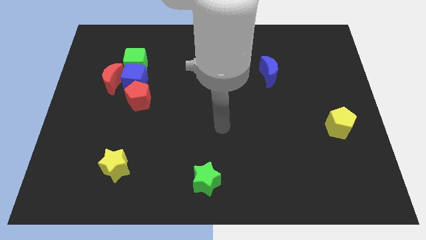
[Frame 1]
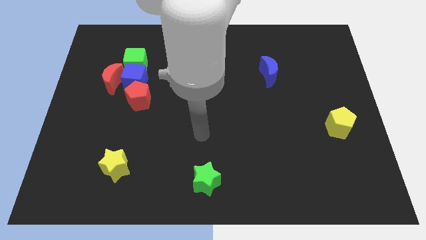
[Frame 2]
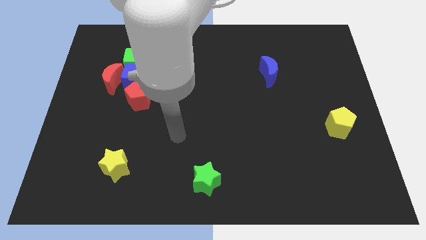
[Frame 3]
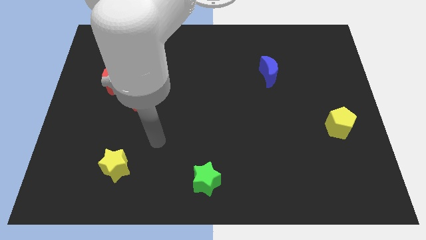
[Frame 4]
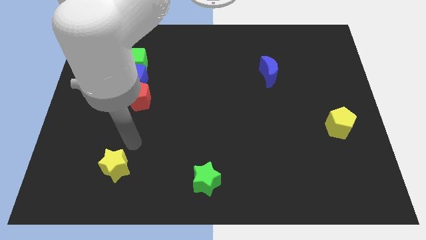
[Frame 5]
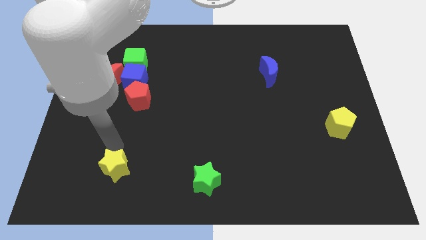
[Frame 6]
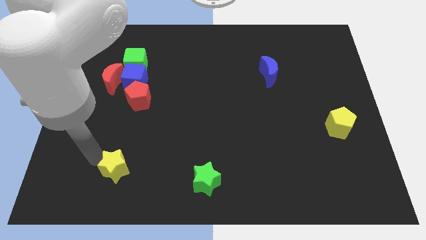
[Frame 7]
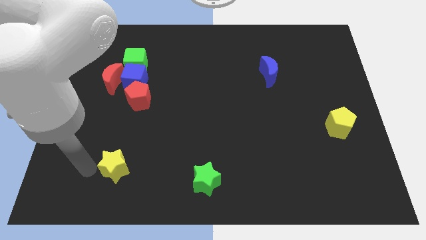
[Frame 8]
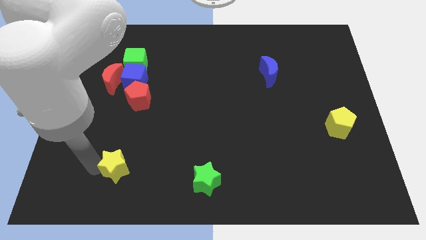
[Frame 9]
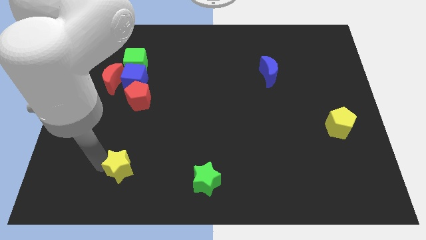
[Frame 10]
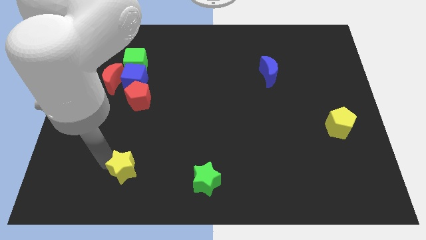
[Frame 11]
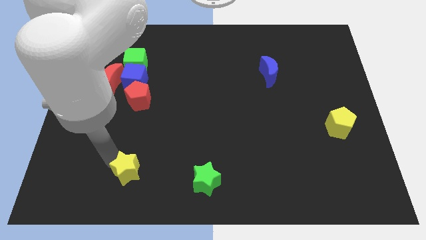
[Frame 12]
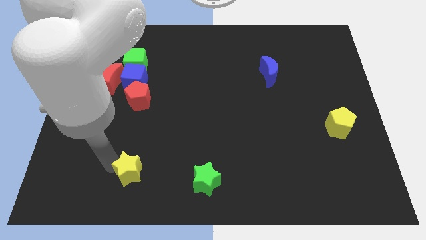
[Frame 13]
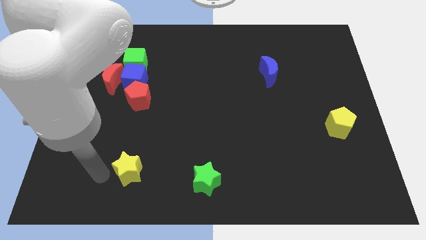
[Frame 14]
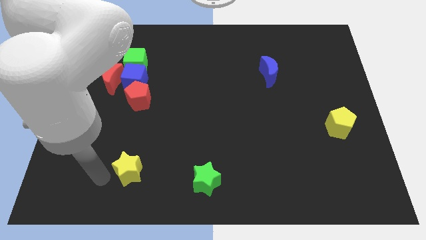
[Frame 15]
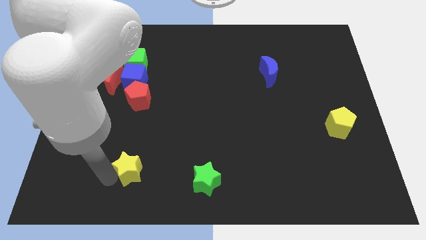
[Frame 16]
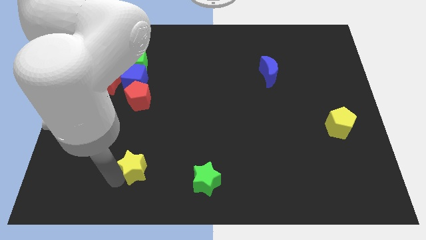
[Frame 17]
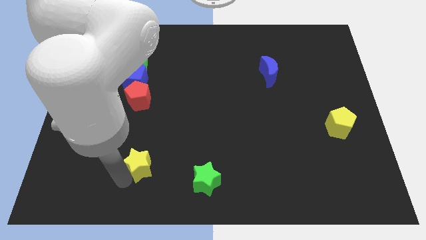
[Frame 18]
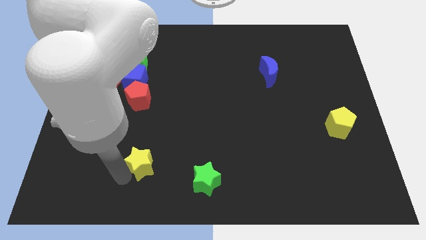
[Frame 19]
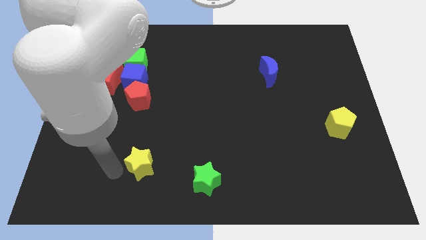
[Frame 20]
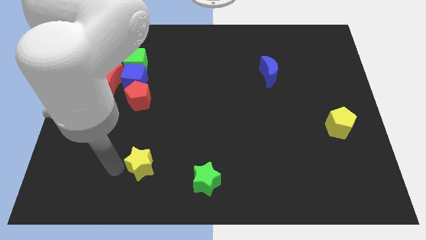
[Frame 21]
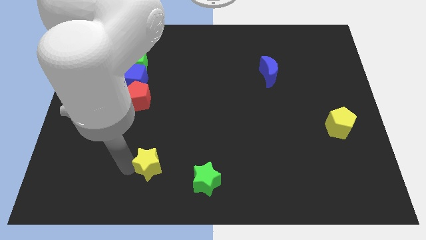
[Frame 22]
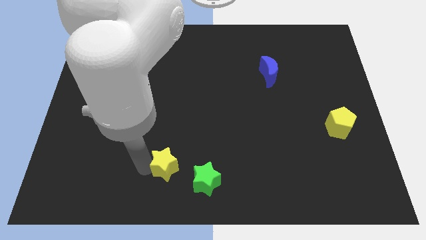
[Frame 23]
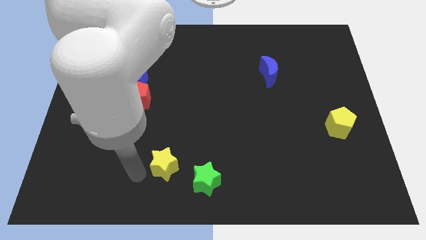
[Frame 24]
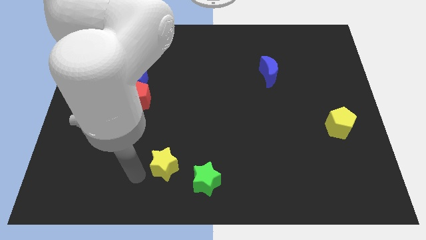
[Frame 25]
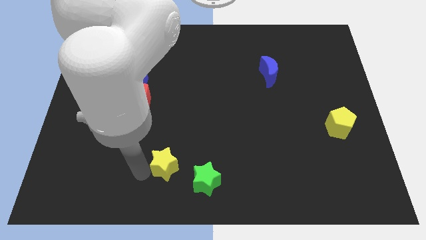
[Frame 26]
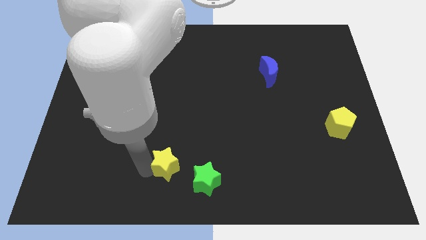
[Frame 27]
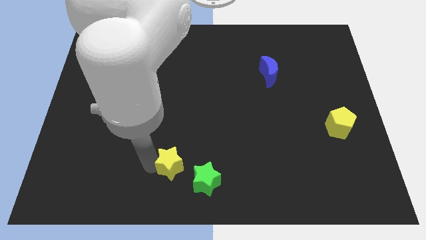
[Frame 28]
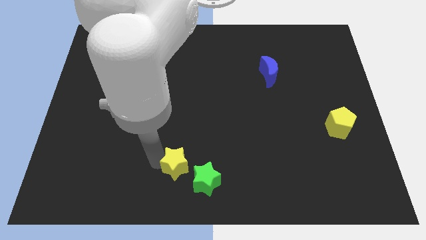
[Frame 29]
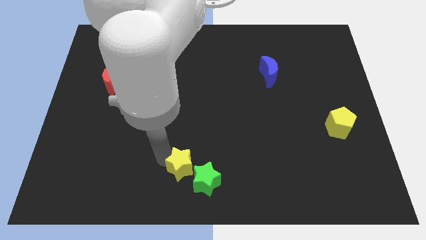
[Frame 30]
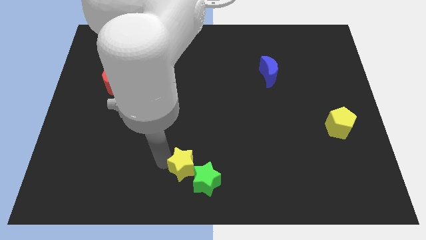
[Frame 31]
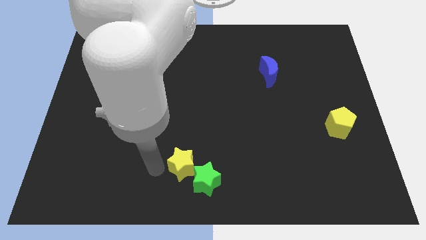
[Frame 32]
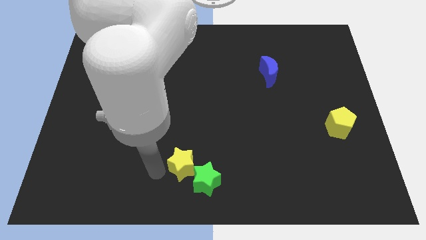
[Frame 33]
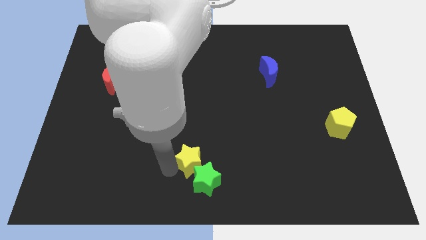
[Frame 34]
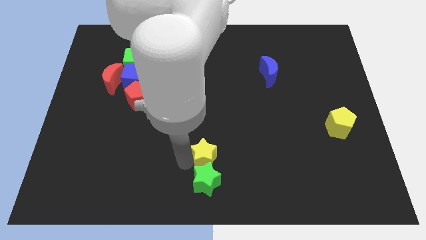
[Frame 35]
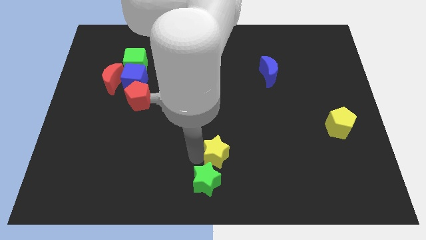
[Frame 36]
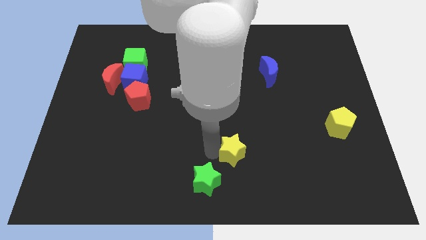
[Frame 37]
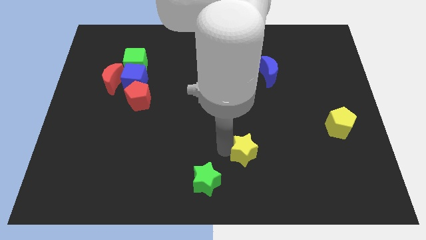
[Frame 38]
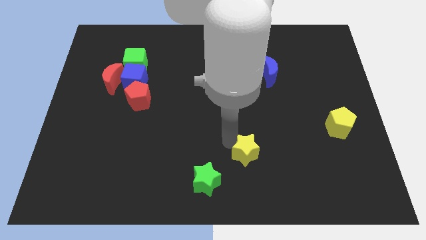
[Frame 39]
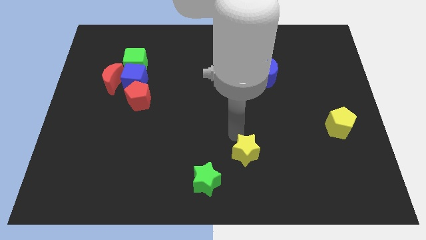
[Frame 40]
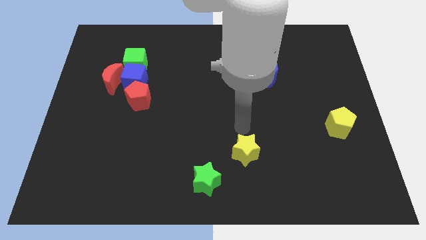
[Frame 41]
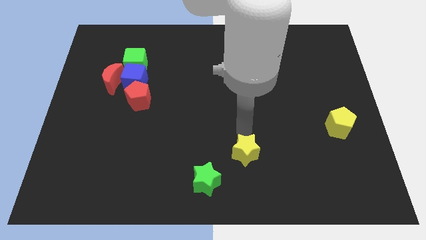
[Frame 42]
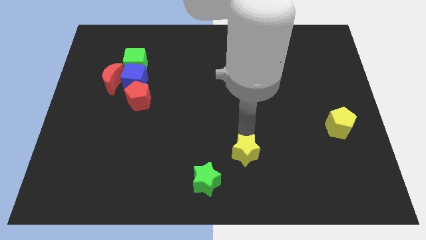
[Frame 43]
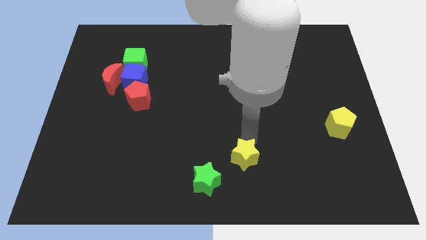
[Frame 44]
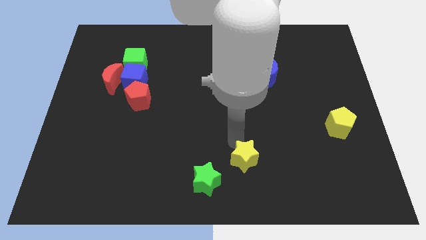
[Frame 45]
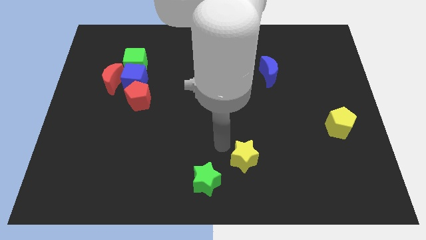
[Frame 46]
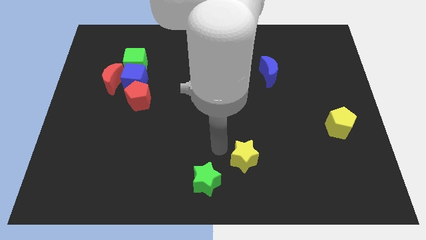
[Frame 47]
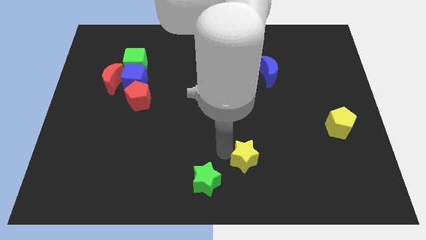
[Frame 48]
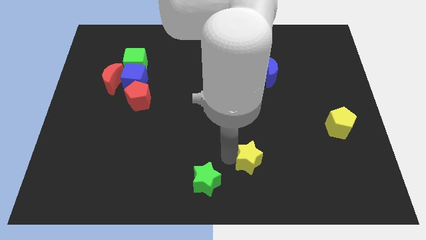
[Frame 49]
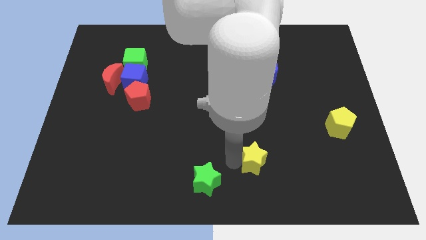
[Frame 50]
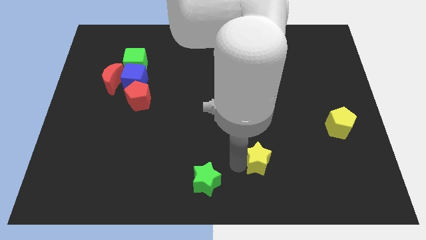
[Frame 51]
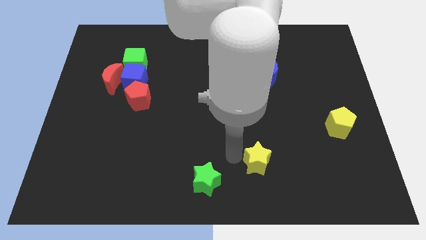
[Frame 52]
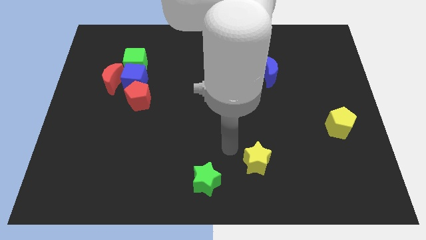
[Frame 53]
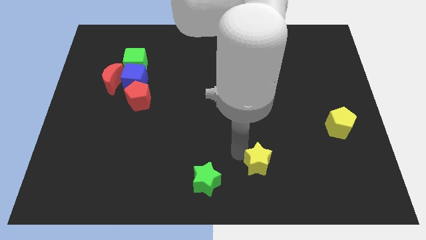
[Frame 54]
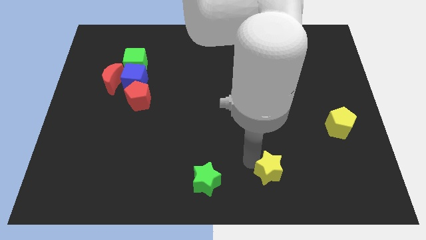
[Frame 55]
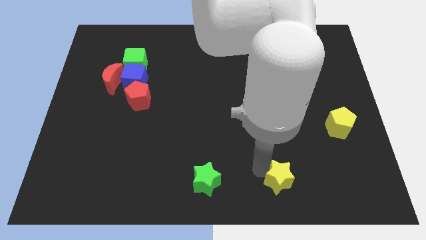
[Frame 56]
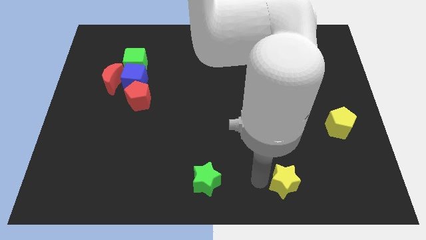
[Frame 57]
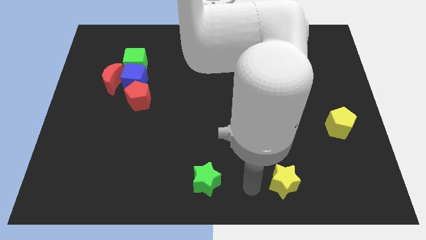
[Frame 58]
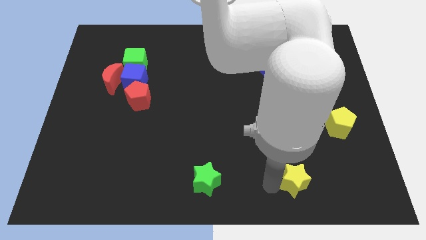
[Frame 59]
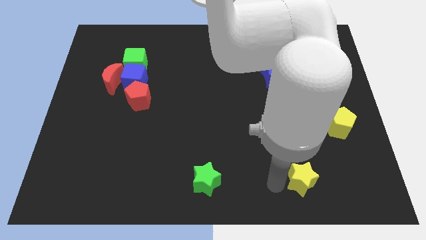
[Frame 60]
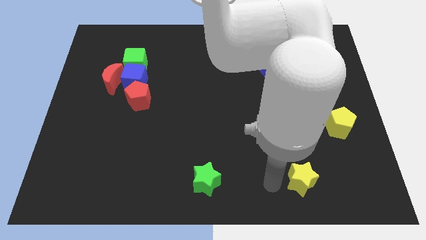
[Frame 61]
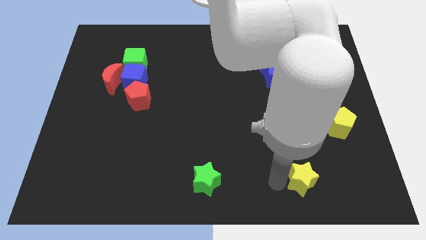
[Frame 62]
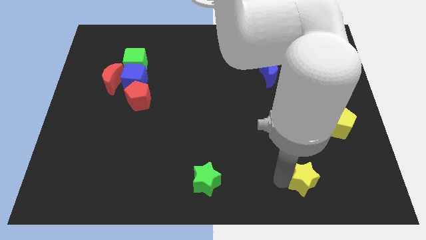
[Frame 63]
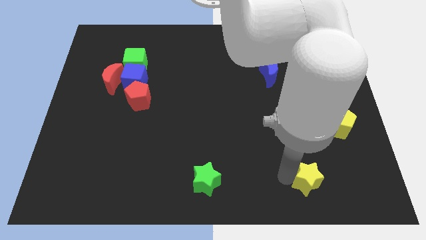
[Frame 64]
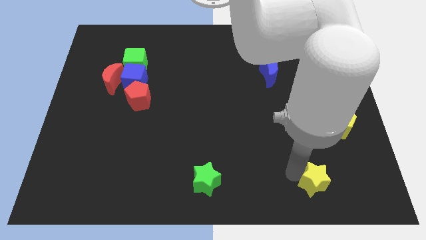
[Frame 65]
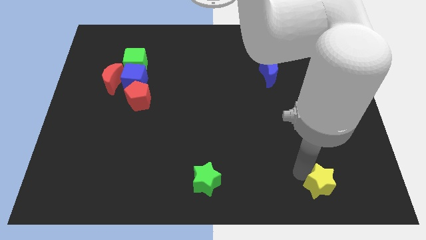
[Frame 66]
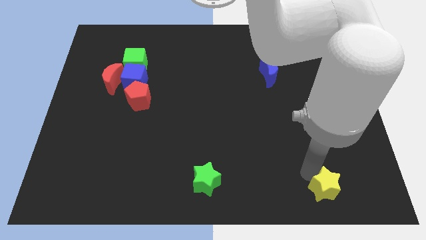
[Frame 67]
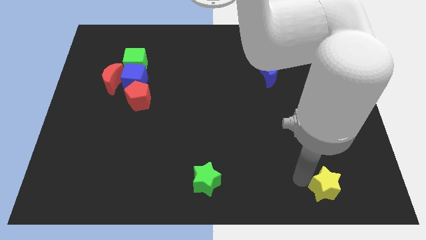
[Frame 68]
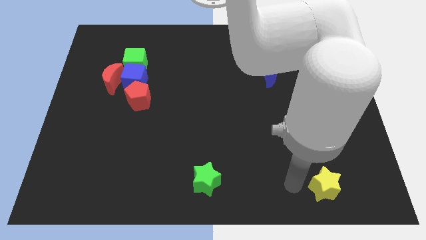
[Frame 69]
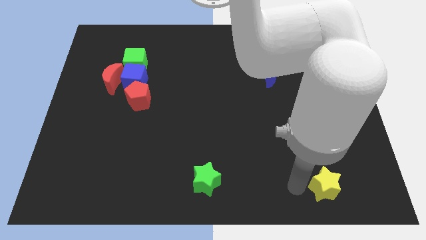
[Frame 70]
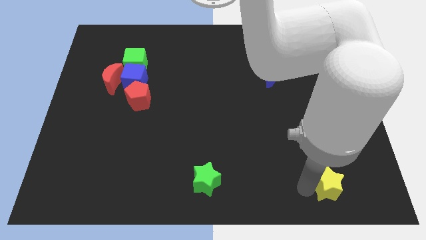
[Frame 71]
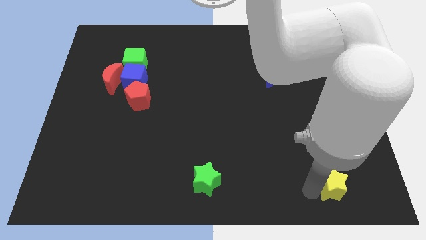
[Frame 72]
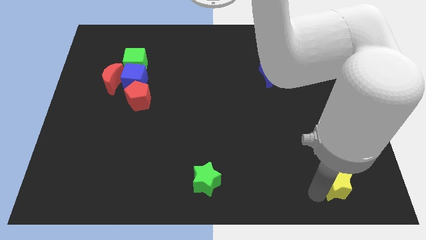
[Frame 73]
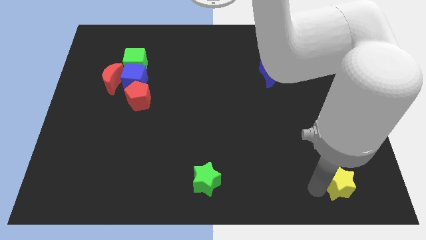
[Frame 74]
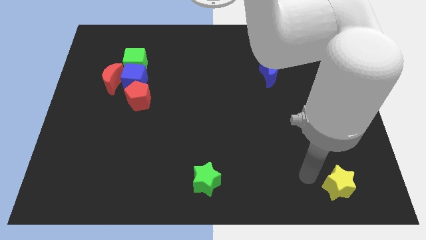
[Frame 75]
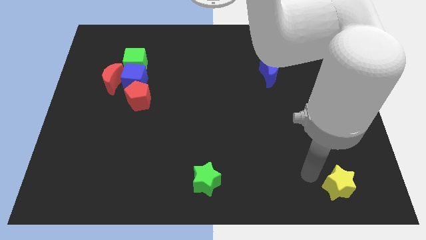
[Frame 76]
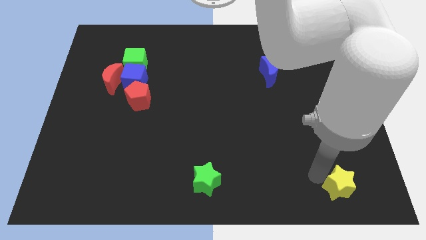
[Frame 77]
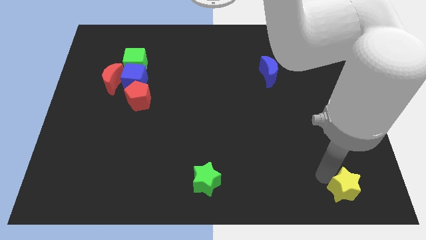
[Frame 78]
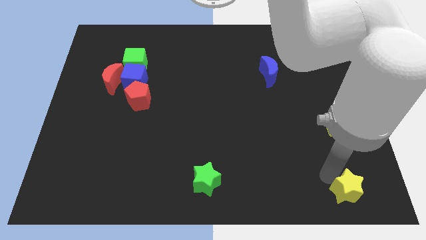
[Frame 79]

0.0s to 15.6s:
put the yellow star to the bottom right of the board
